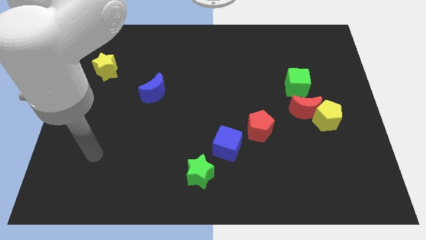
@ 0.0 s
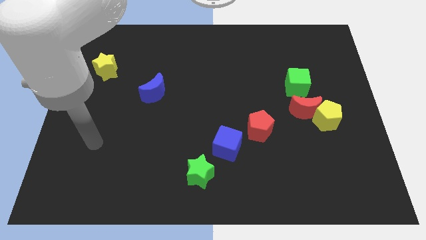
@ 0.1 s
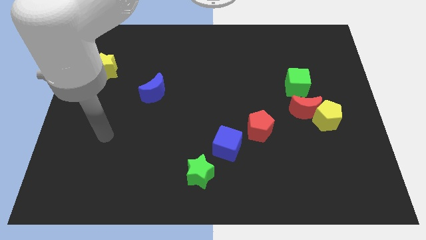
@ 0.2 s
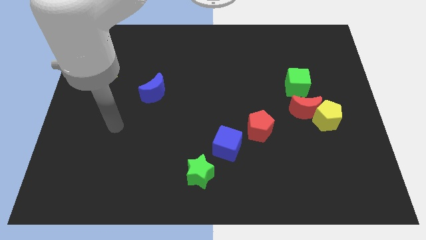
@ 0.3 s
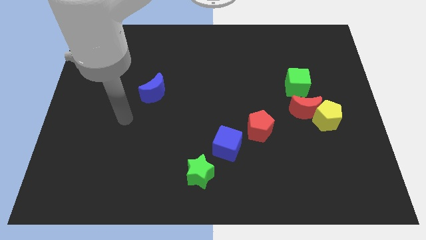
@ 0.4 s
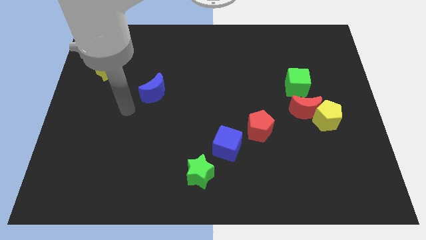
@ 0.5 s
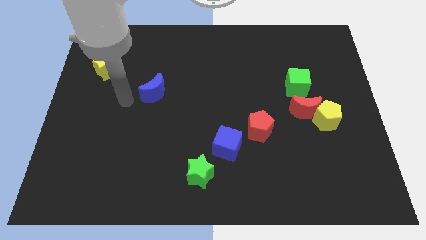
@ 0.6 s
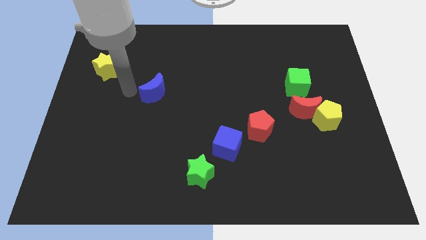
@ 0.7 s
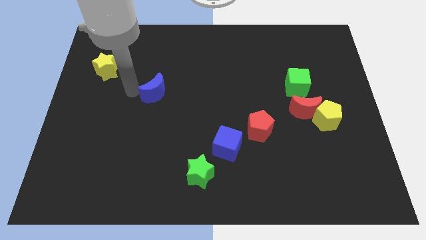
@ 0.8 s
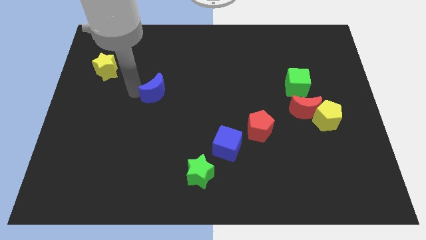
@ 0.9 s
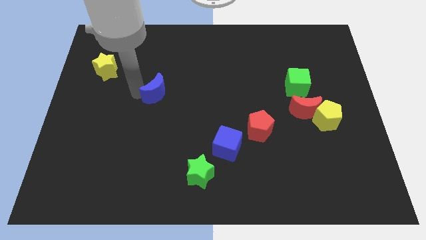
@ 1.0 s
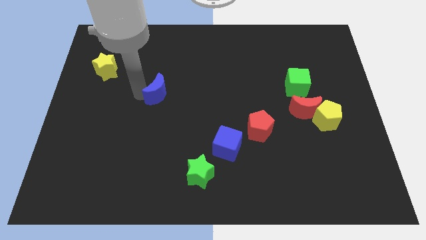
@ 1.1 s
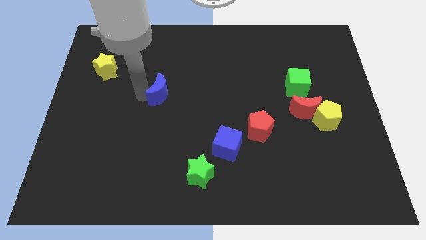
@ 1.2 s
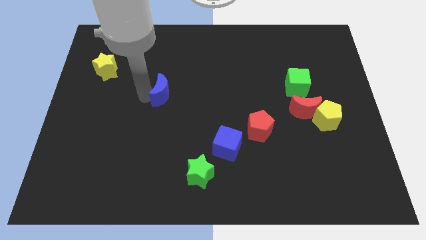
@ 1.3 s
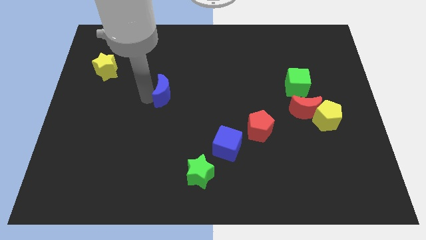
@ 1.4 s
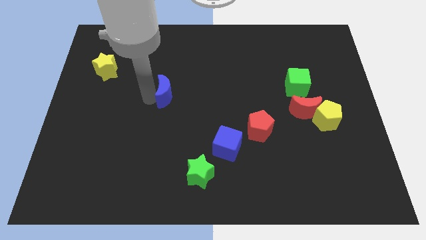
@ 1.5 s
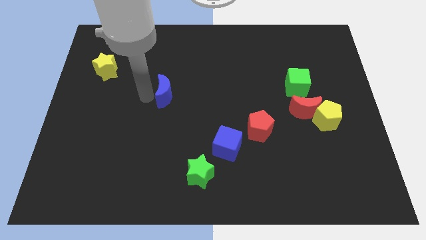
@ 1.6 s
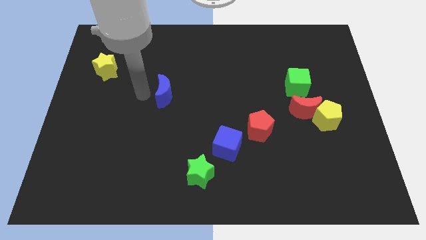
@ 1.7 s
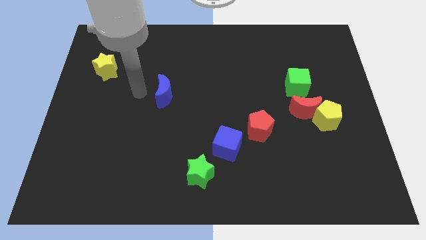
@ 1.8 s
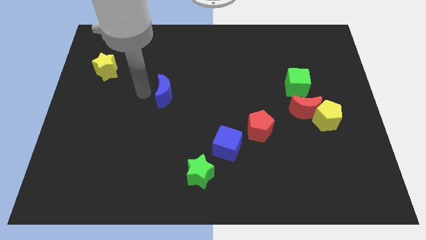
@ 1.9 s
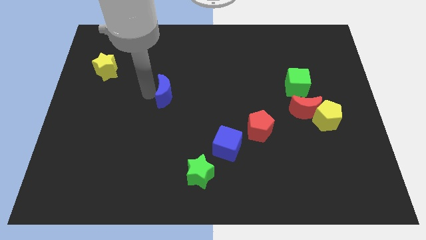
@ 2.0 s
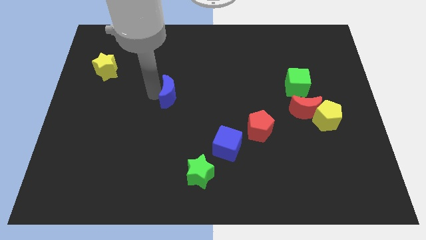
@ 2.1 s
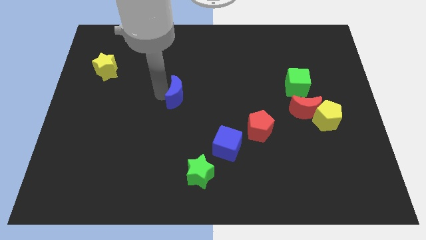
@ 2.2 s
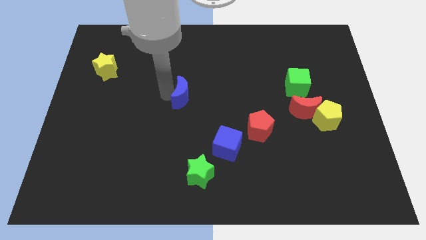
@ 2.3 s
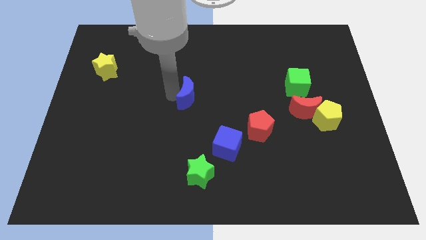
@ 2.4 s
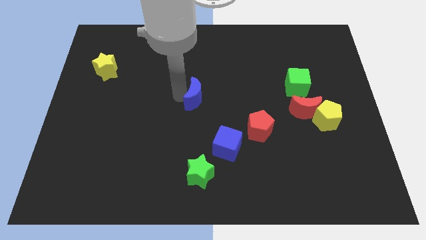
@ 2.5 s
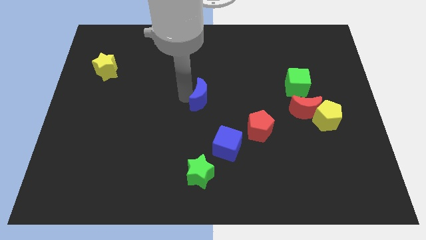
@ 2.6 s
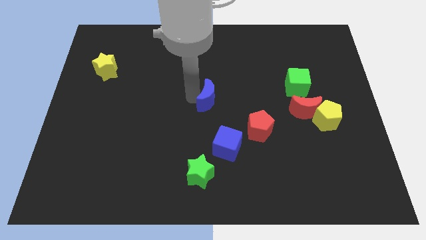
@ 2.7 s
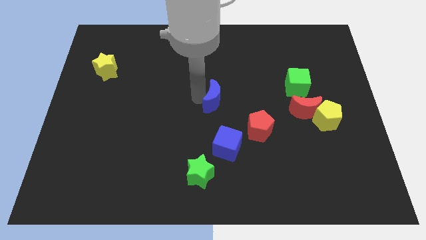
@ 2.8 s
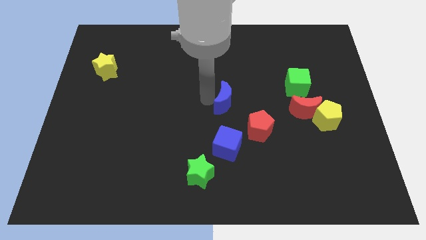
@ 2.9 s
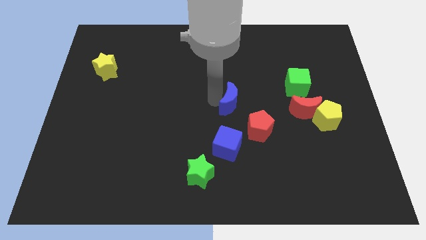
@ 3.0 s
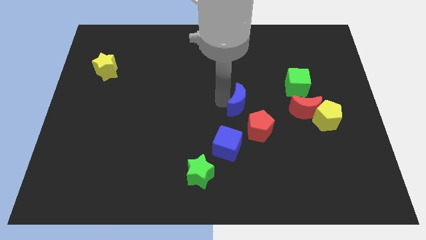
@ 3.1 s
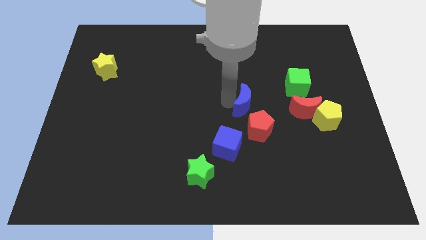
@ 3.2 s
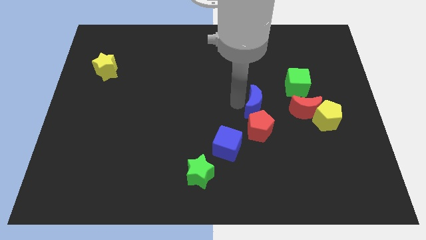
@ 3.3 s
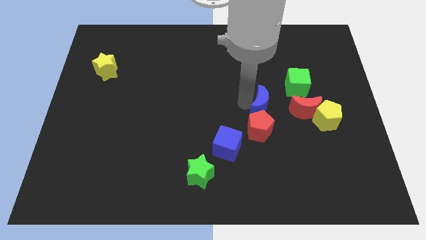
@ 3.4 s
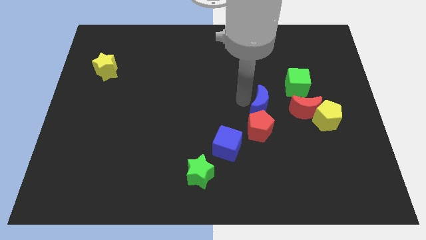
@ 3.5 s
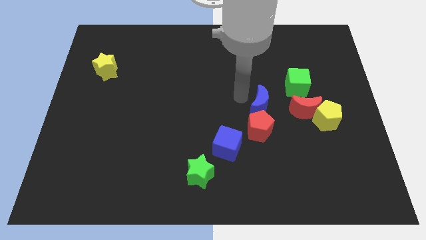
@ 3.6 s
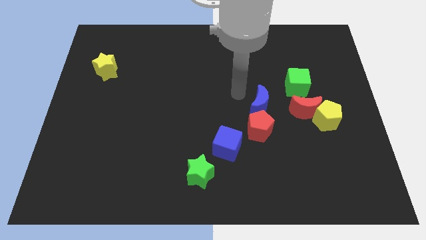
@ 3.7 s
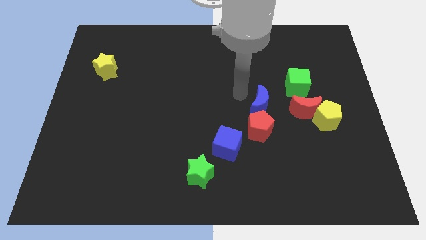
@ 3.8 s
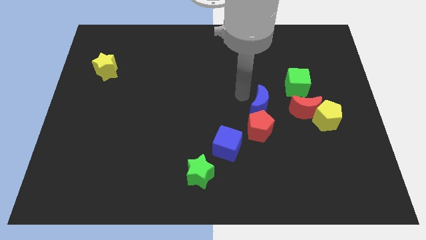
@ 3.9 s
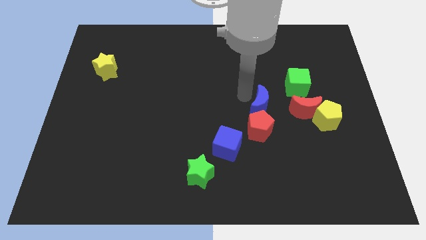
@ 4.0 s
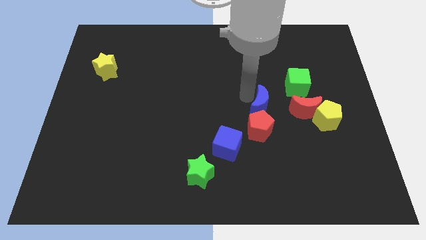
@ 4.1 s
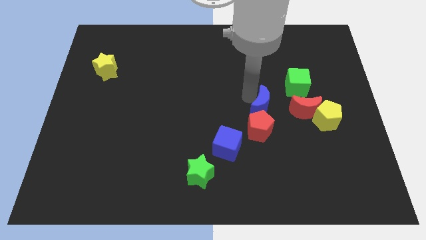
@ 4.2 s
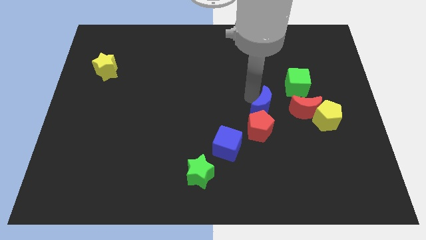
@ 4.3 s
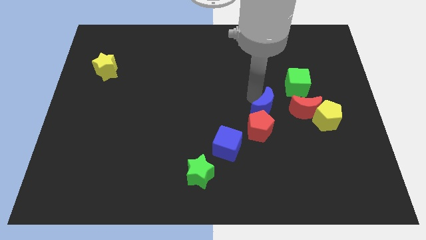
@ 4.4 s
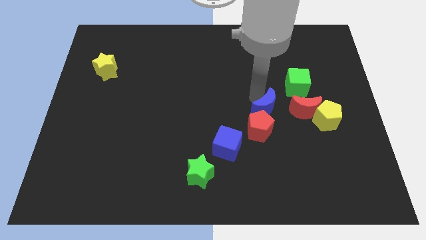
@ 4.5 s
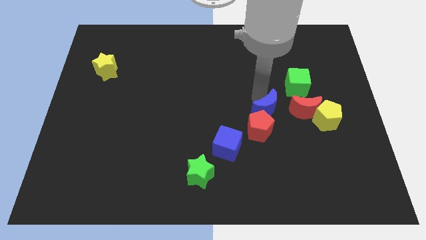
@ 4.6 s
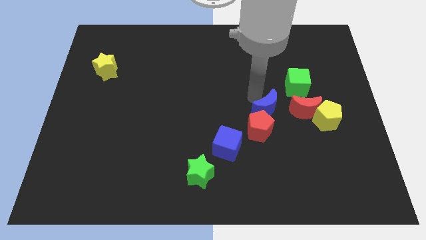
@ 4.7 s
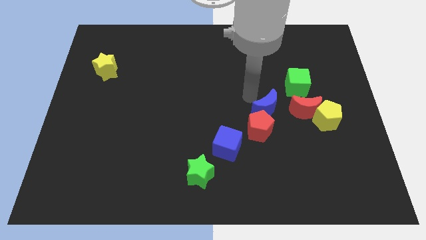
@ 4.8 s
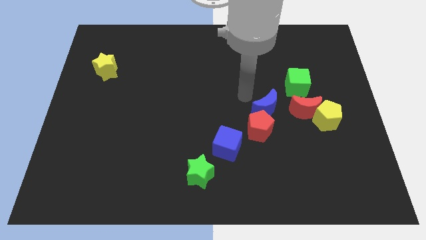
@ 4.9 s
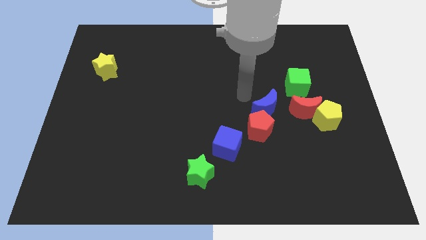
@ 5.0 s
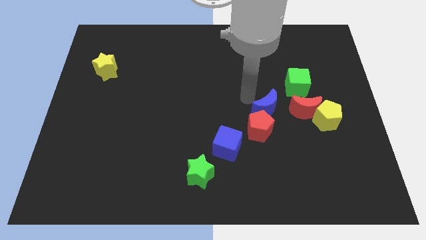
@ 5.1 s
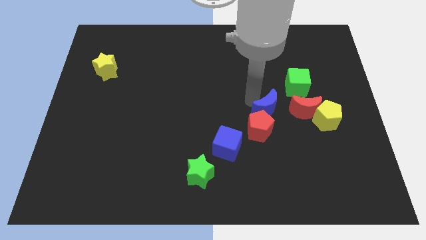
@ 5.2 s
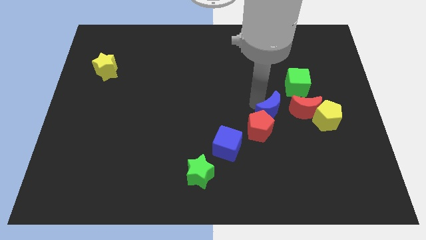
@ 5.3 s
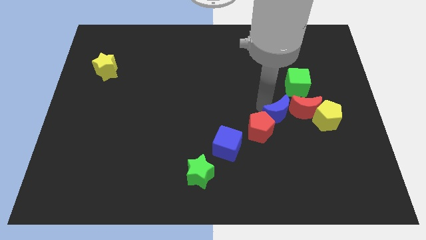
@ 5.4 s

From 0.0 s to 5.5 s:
slide the blue moon to the bottom left side of the red moon

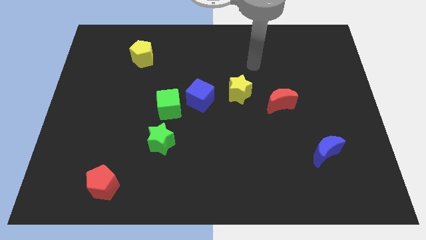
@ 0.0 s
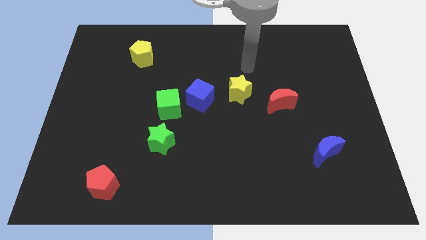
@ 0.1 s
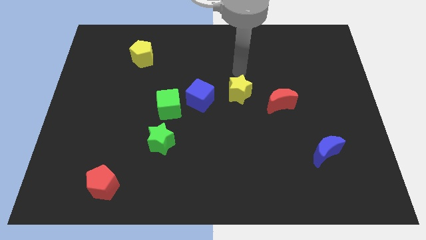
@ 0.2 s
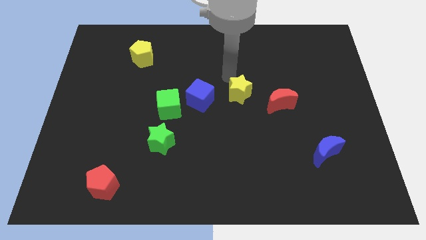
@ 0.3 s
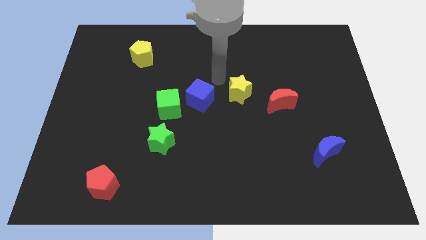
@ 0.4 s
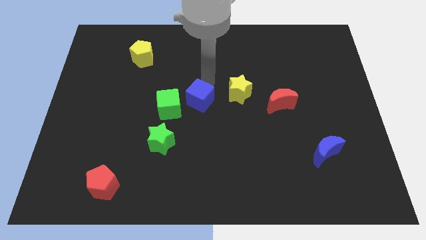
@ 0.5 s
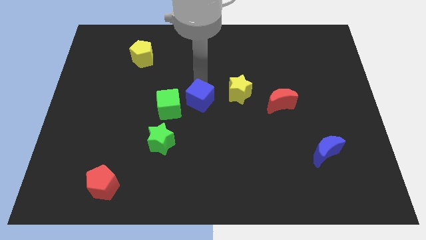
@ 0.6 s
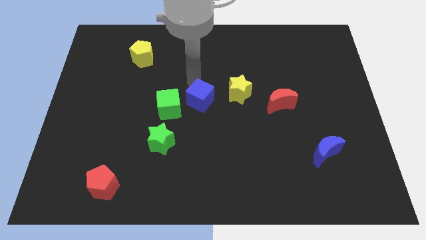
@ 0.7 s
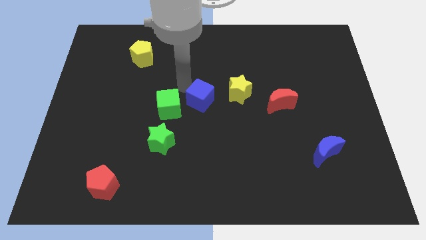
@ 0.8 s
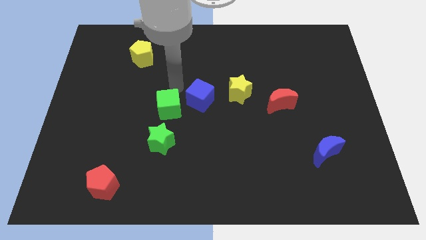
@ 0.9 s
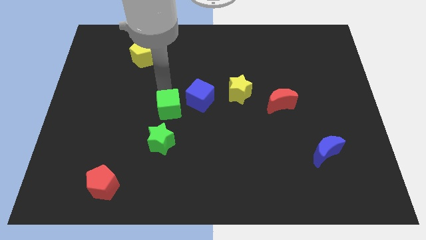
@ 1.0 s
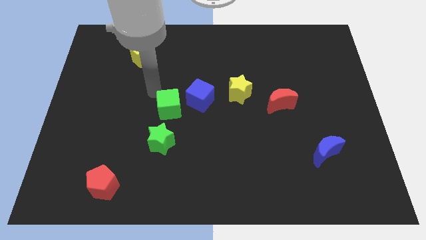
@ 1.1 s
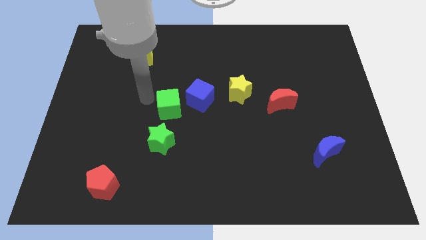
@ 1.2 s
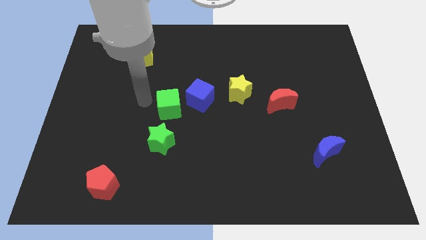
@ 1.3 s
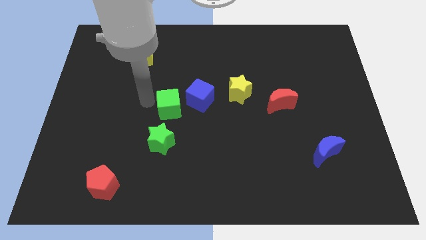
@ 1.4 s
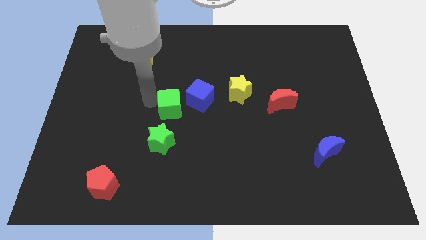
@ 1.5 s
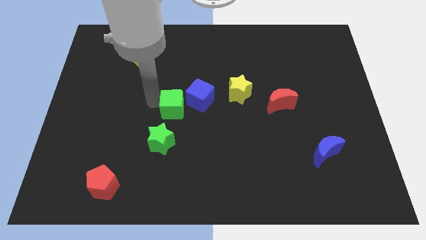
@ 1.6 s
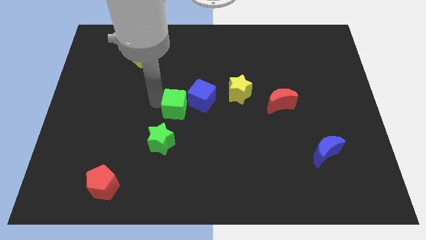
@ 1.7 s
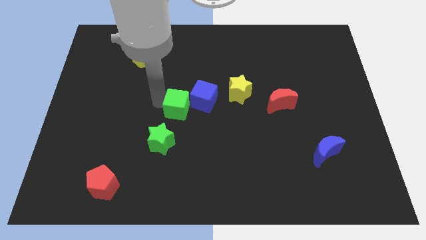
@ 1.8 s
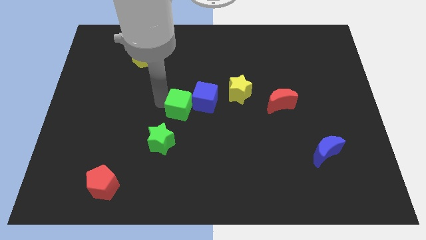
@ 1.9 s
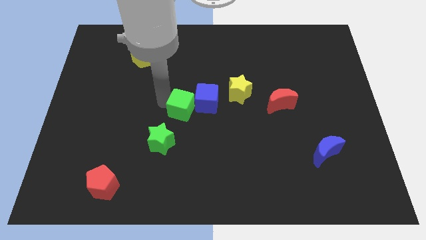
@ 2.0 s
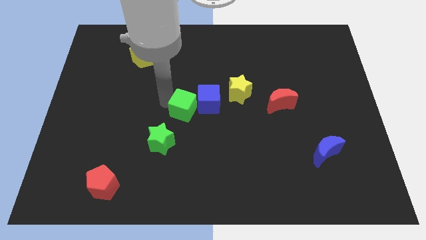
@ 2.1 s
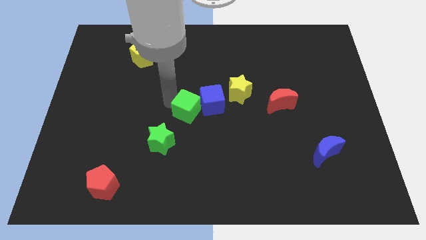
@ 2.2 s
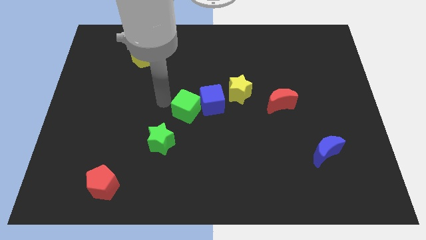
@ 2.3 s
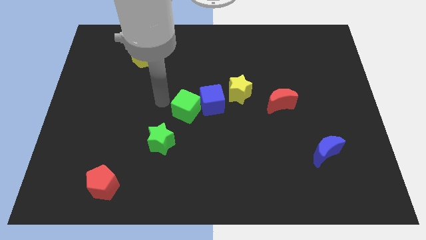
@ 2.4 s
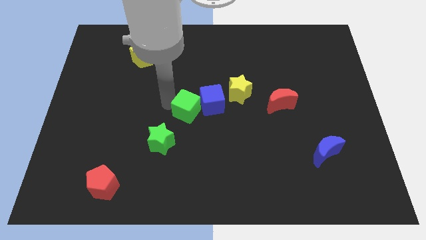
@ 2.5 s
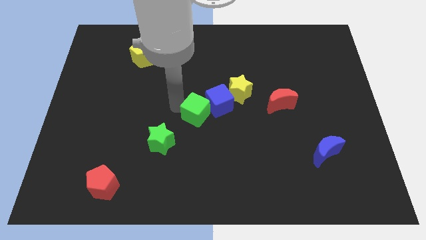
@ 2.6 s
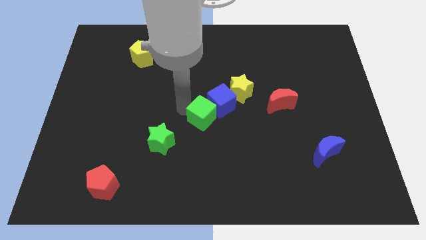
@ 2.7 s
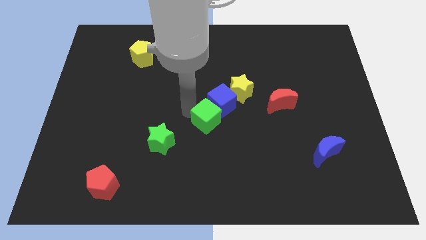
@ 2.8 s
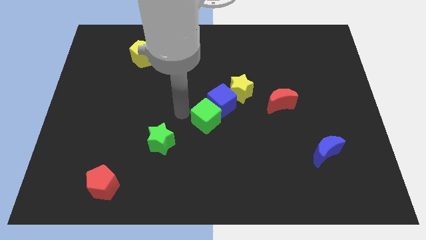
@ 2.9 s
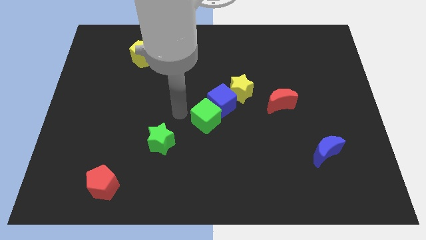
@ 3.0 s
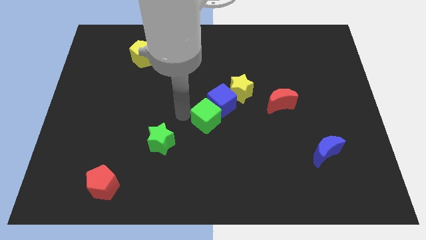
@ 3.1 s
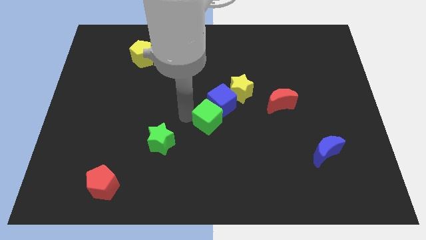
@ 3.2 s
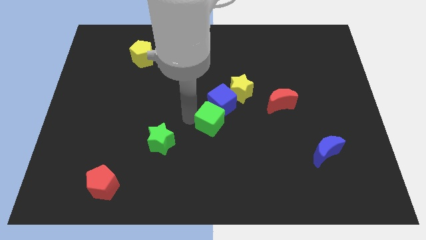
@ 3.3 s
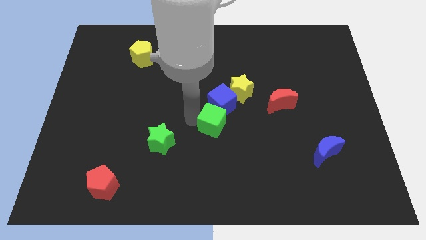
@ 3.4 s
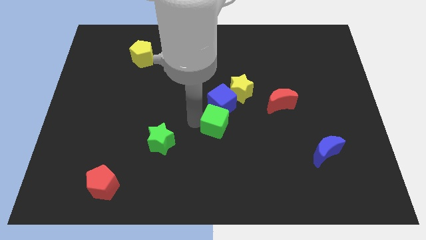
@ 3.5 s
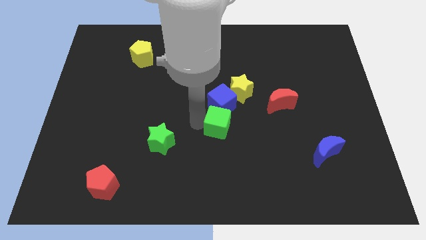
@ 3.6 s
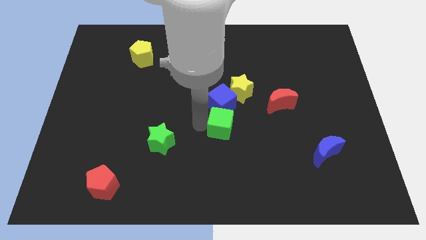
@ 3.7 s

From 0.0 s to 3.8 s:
move the green cube to the bottom side of the yellow star
